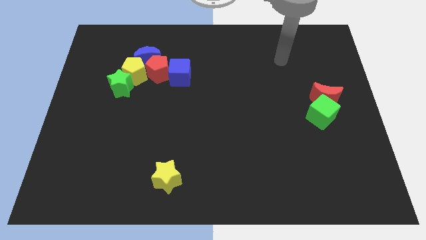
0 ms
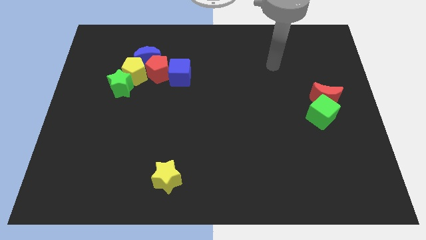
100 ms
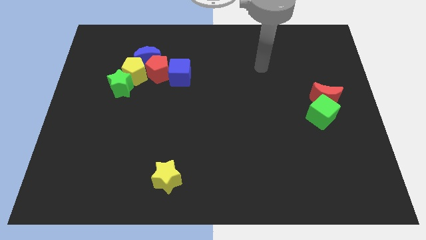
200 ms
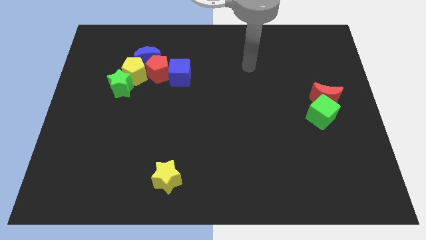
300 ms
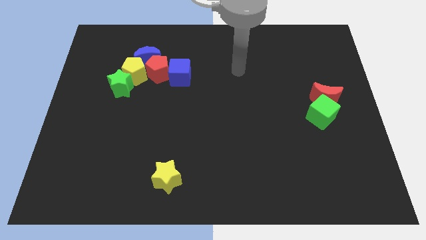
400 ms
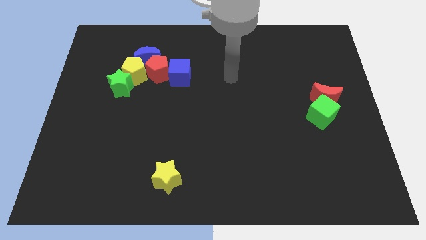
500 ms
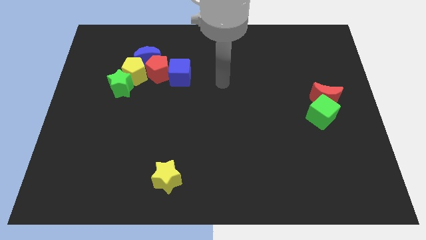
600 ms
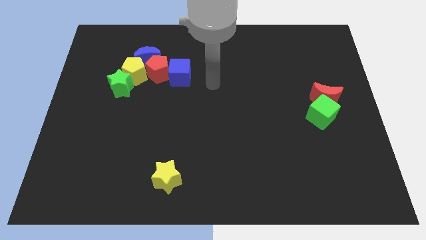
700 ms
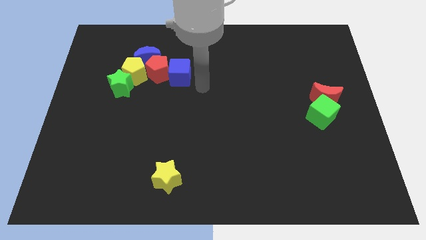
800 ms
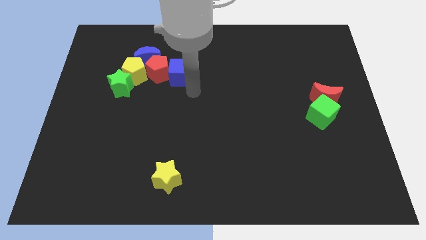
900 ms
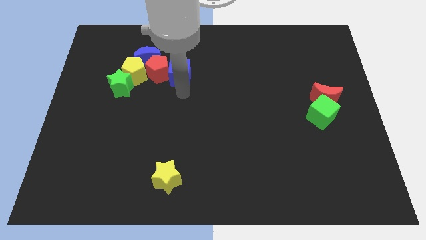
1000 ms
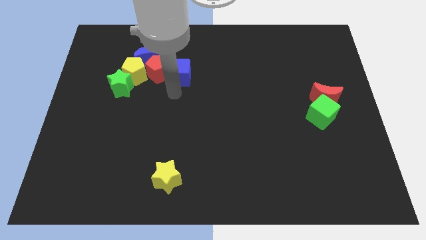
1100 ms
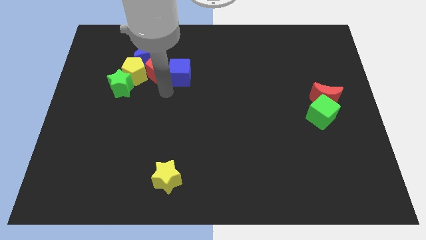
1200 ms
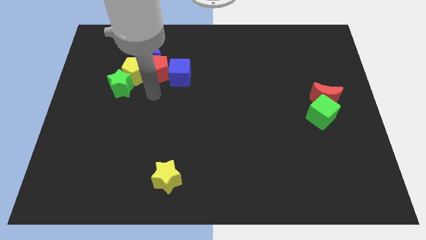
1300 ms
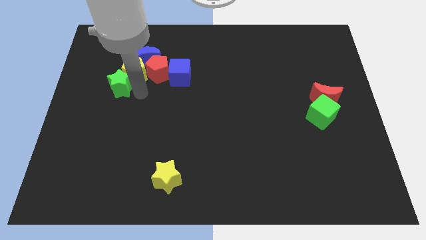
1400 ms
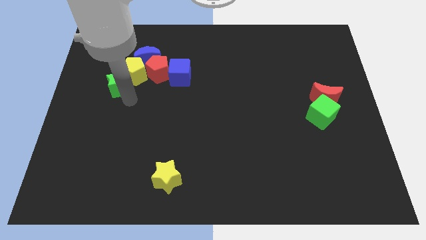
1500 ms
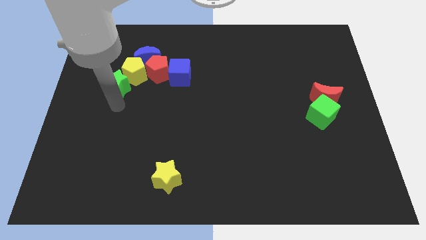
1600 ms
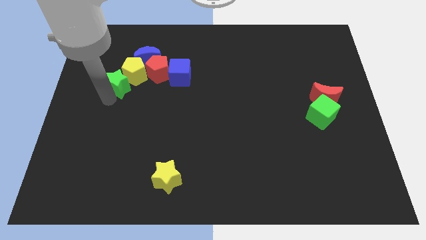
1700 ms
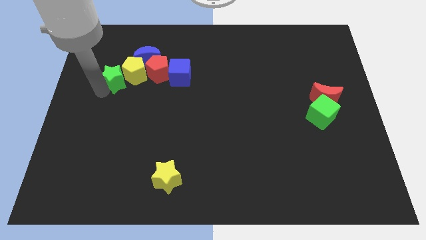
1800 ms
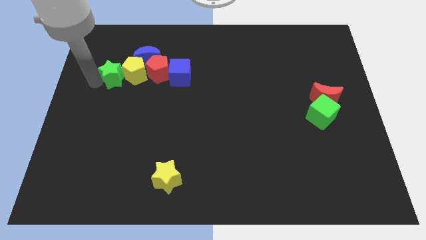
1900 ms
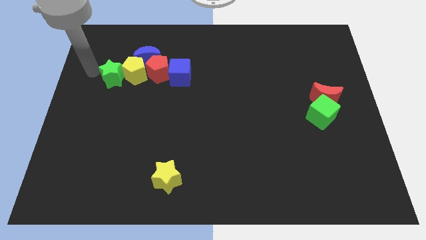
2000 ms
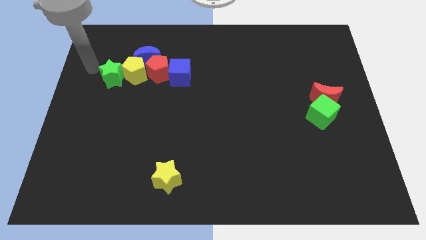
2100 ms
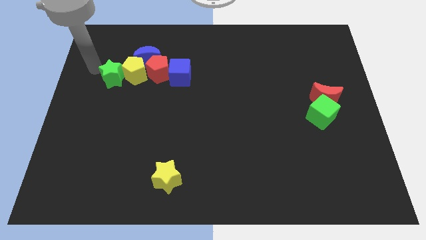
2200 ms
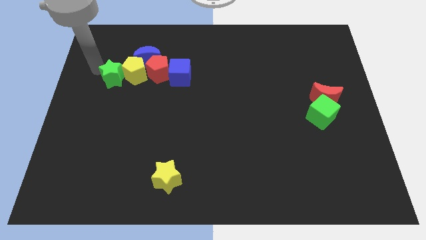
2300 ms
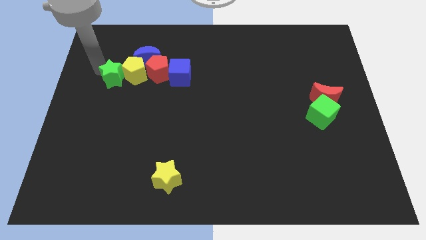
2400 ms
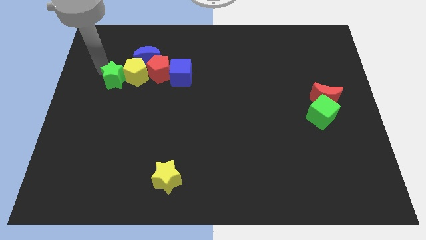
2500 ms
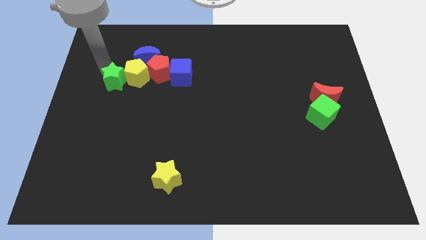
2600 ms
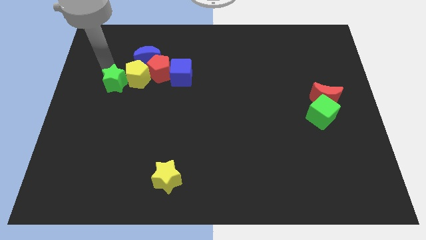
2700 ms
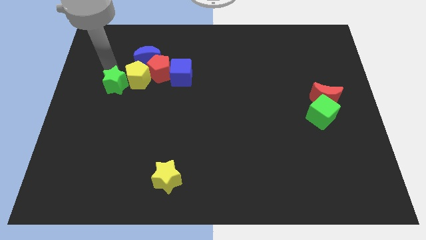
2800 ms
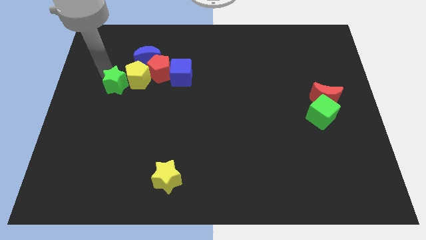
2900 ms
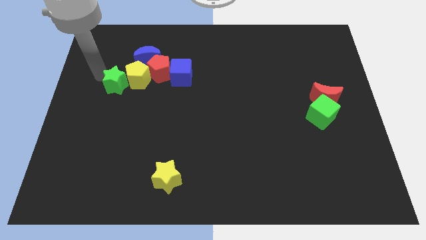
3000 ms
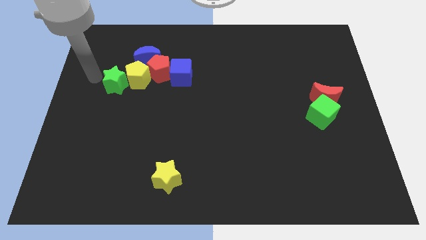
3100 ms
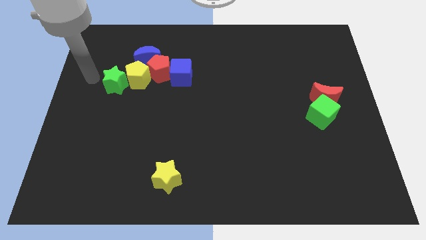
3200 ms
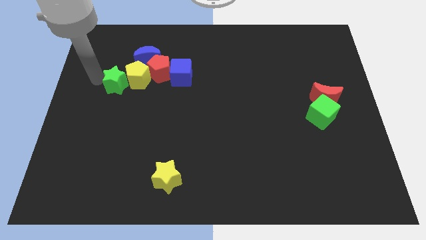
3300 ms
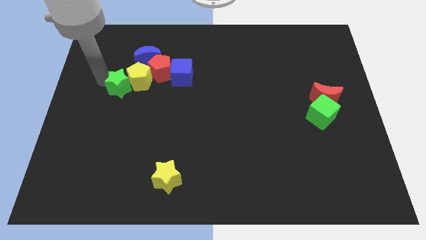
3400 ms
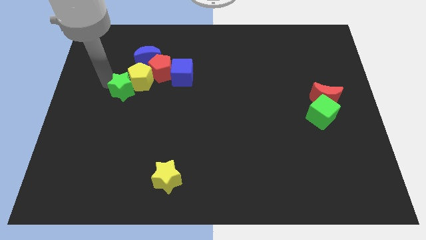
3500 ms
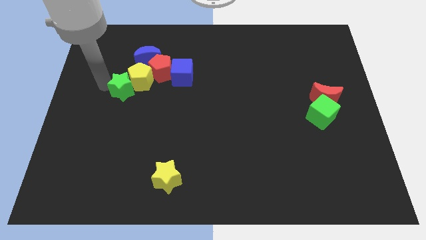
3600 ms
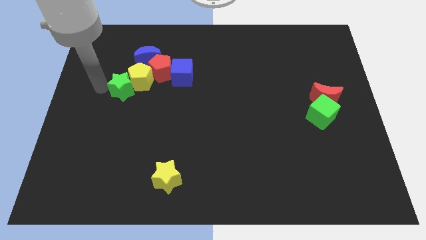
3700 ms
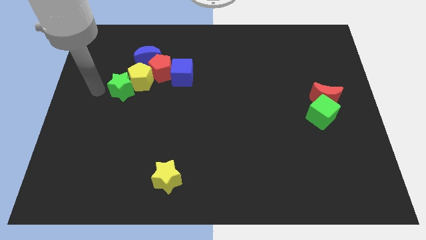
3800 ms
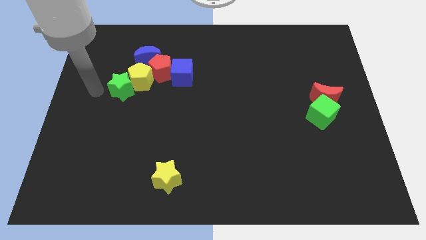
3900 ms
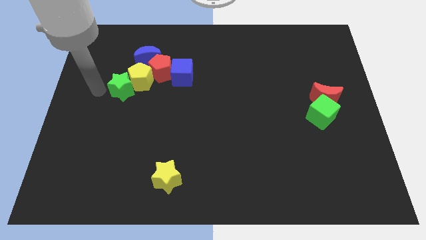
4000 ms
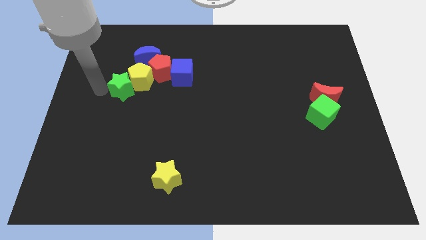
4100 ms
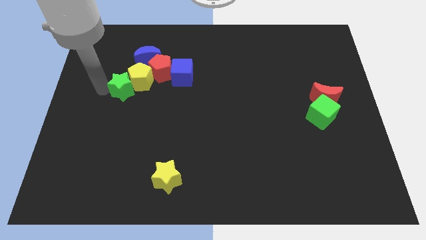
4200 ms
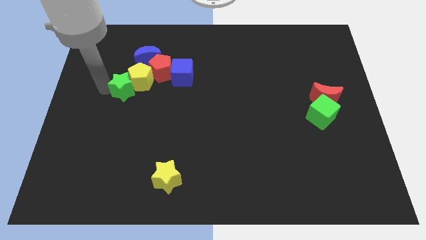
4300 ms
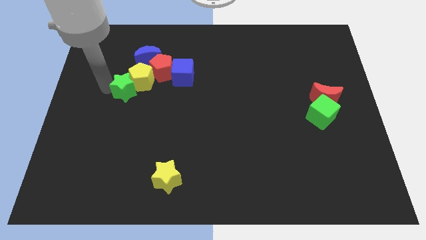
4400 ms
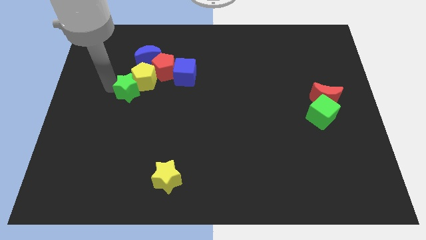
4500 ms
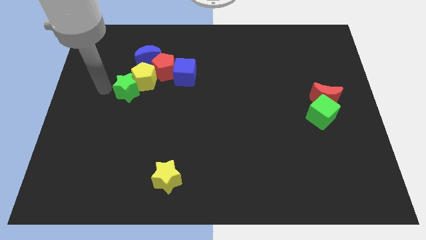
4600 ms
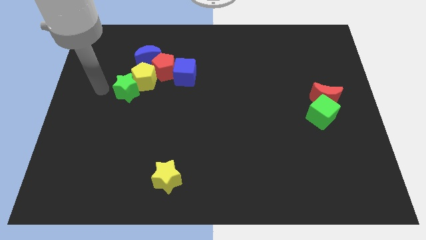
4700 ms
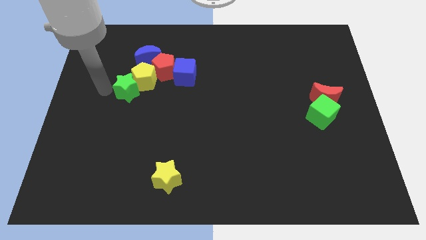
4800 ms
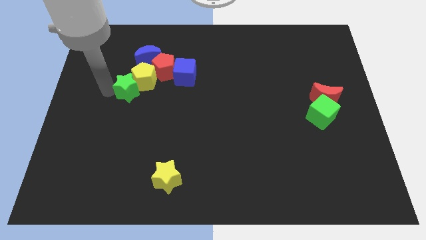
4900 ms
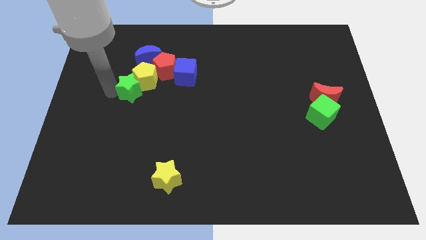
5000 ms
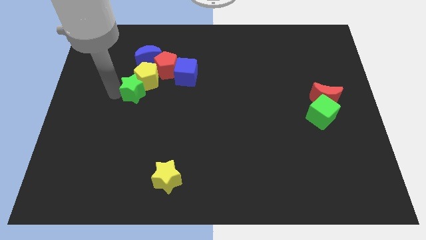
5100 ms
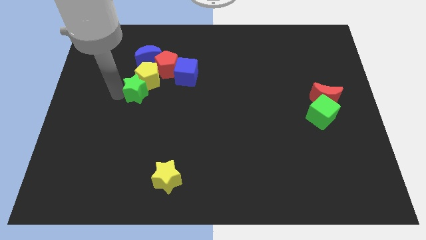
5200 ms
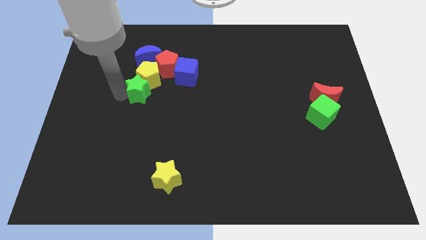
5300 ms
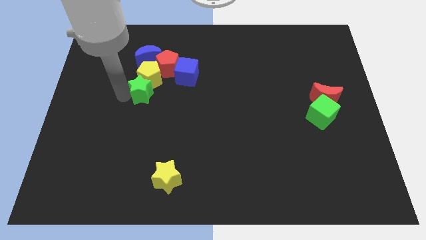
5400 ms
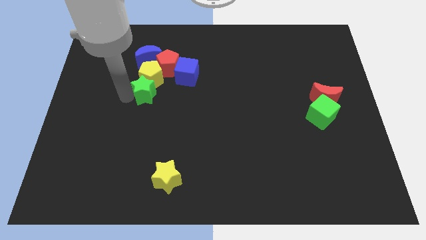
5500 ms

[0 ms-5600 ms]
move the green star to the bottom left of the blue cube

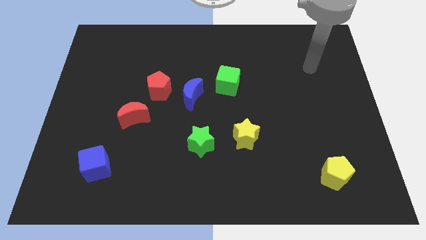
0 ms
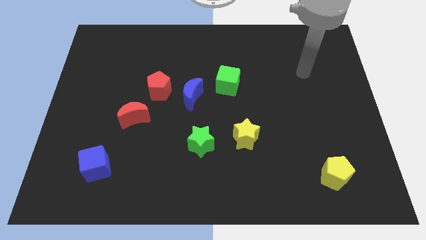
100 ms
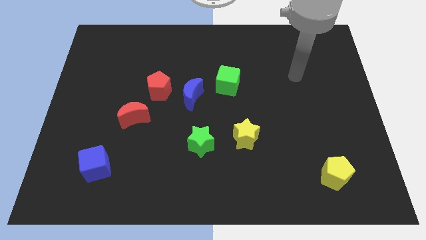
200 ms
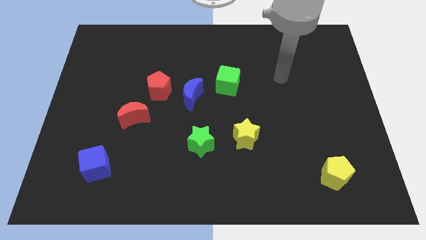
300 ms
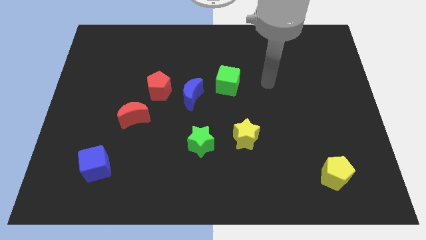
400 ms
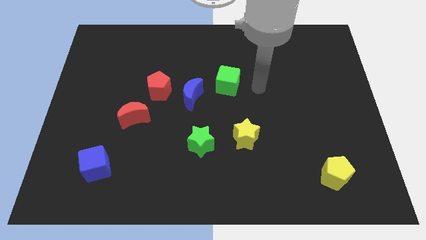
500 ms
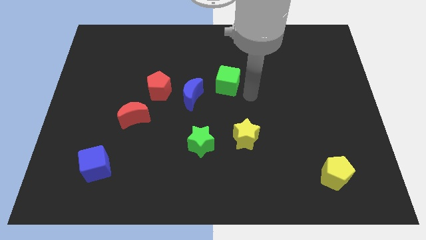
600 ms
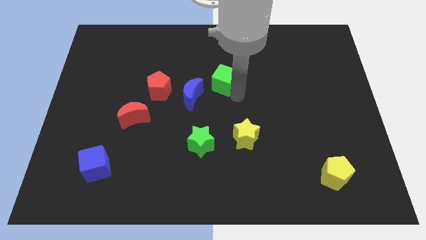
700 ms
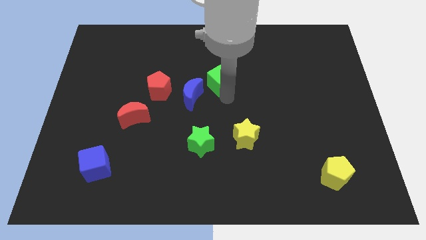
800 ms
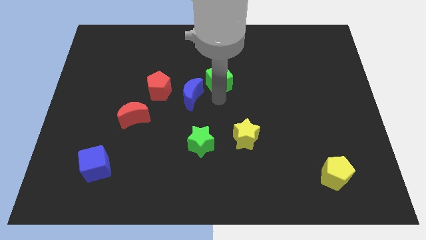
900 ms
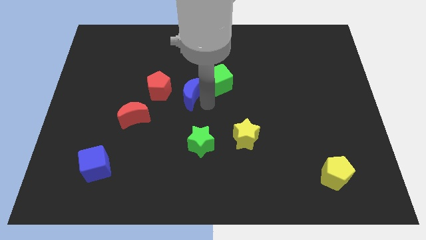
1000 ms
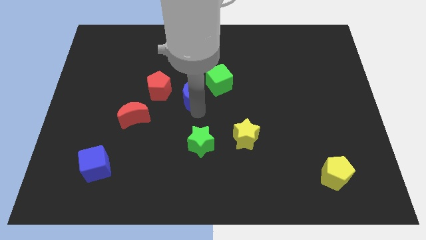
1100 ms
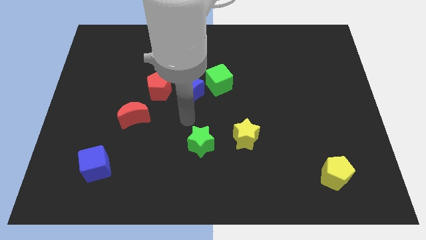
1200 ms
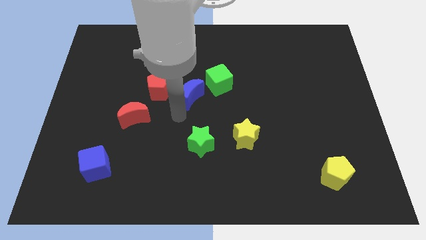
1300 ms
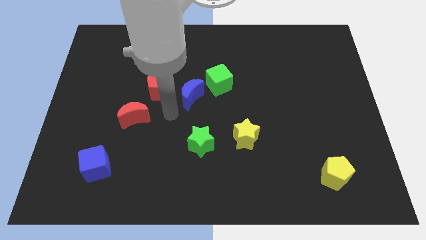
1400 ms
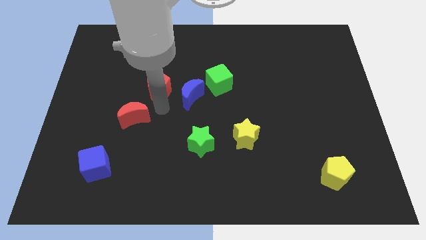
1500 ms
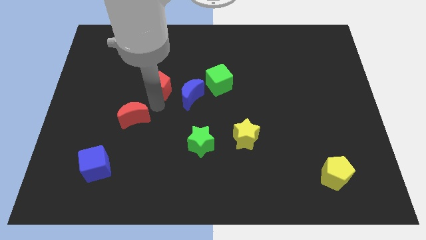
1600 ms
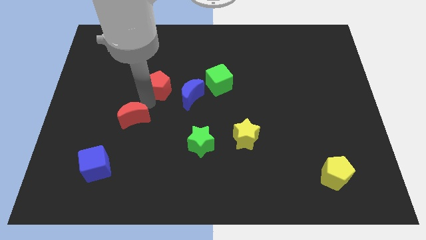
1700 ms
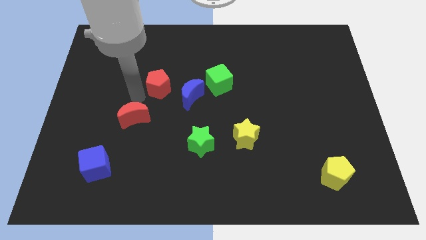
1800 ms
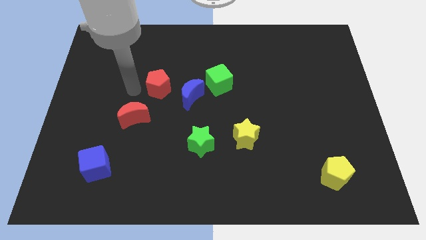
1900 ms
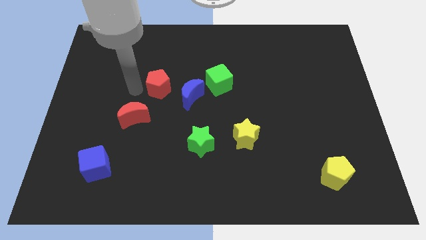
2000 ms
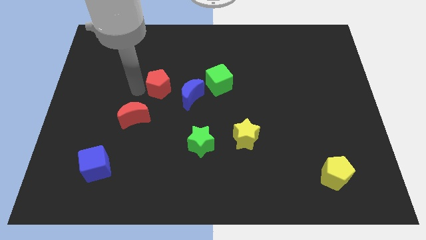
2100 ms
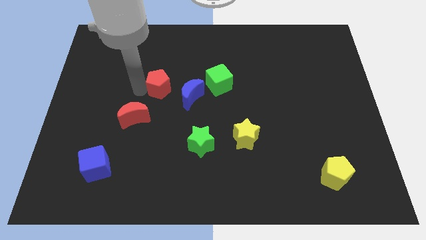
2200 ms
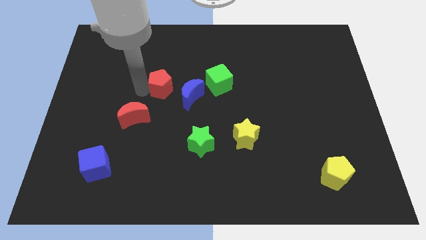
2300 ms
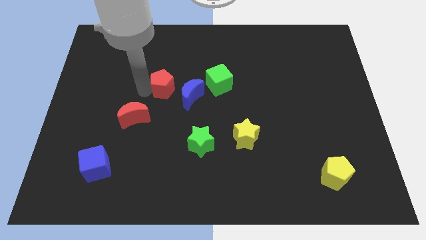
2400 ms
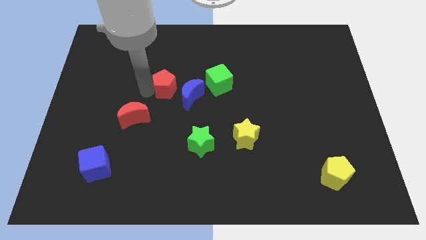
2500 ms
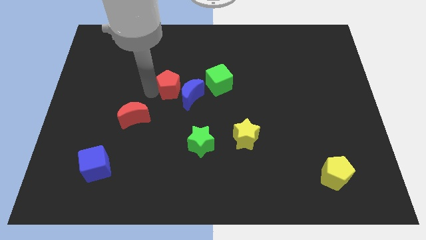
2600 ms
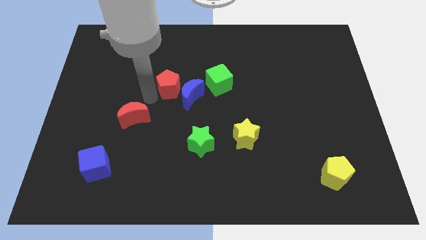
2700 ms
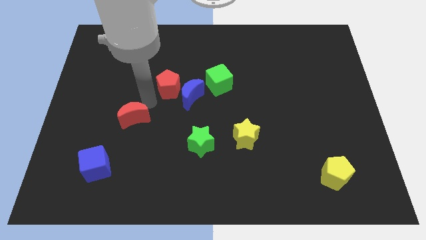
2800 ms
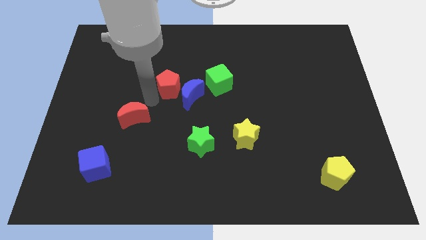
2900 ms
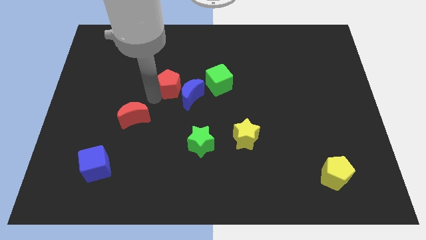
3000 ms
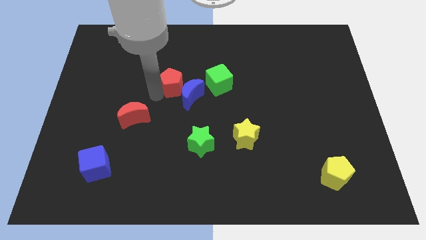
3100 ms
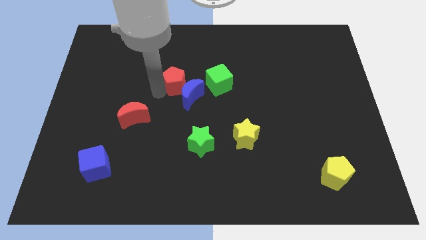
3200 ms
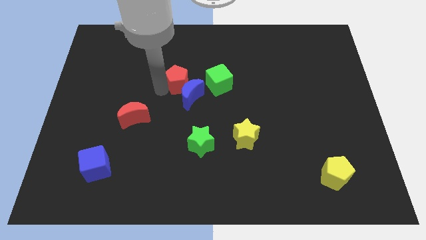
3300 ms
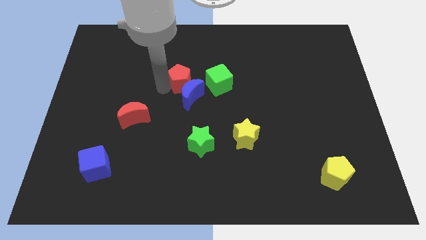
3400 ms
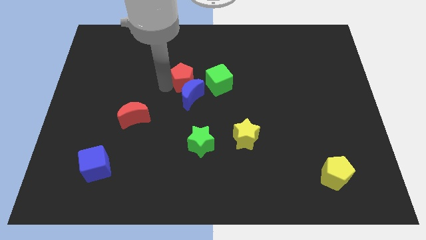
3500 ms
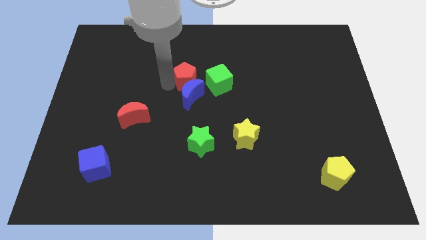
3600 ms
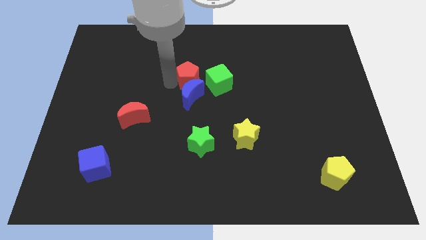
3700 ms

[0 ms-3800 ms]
slide the red pentagon to the top left of the green cube
